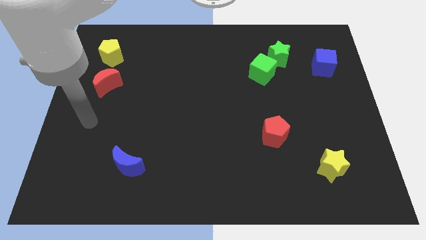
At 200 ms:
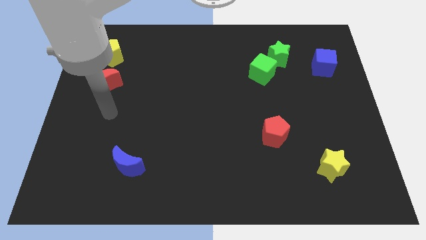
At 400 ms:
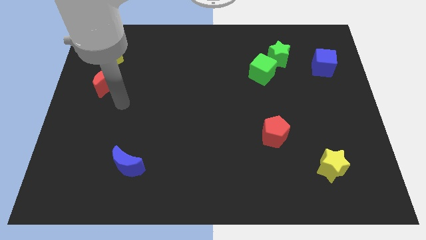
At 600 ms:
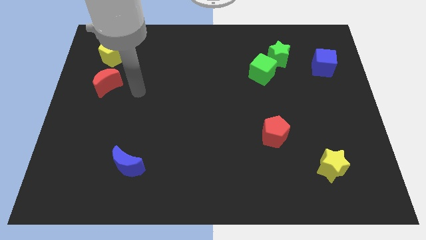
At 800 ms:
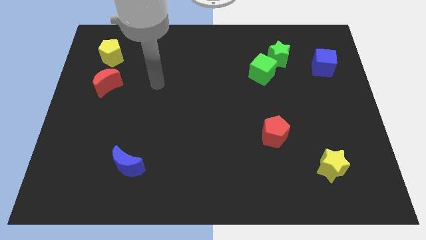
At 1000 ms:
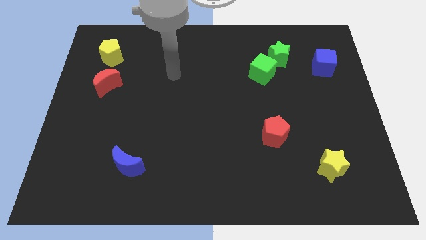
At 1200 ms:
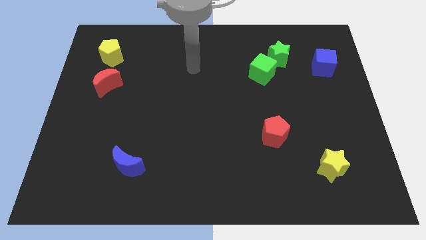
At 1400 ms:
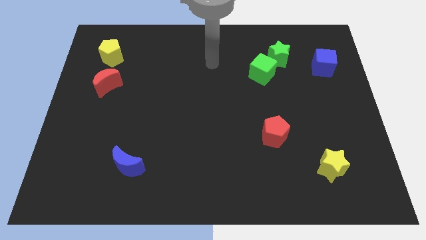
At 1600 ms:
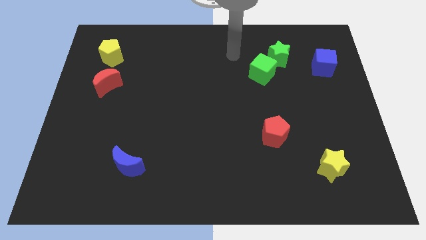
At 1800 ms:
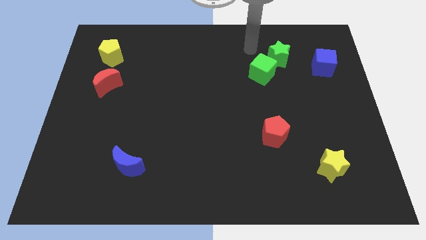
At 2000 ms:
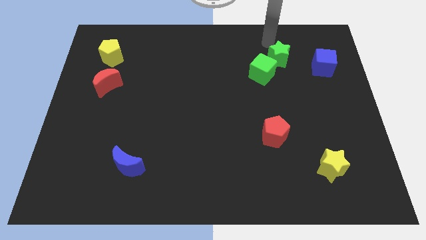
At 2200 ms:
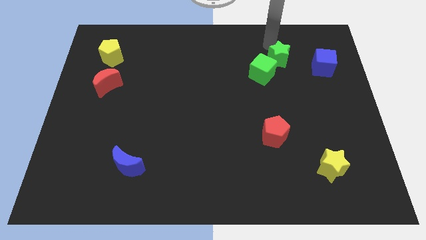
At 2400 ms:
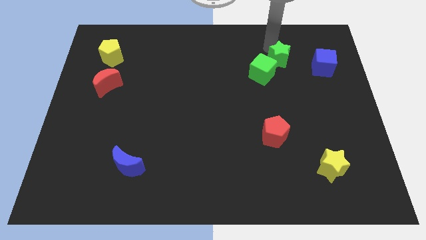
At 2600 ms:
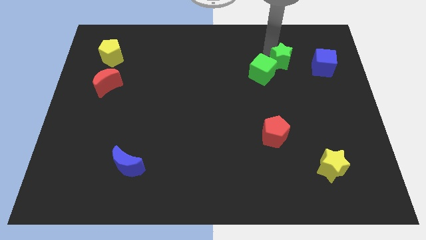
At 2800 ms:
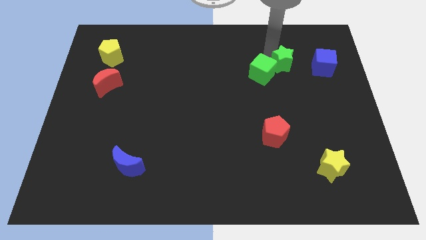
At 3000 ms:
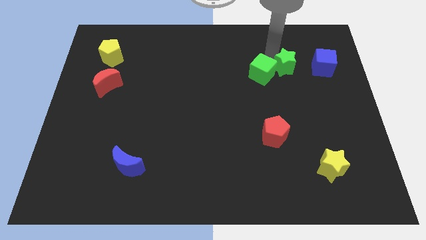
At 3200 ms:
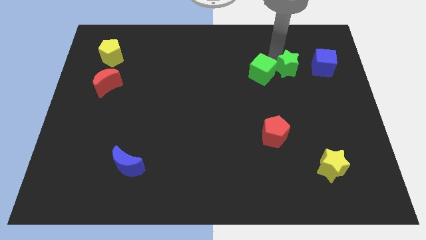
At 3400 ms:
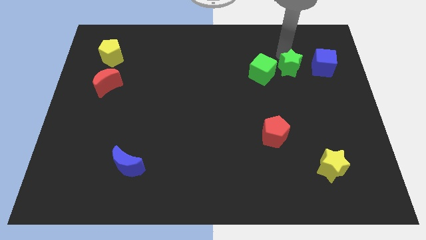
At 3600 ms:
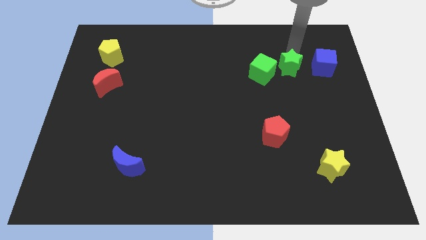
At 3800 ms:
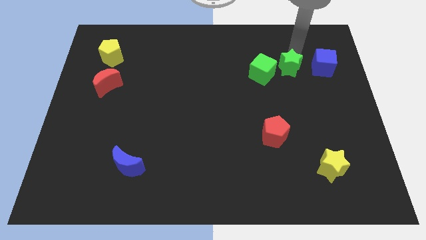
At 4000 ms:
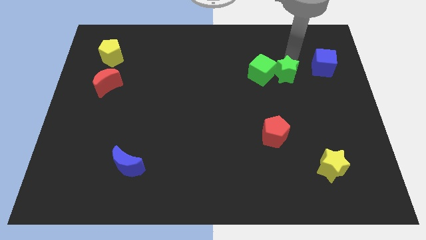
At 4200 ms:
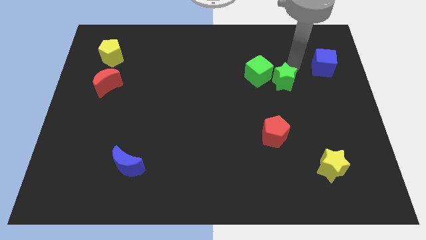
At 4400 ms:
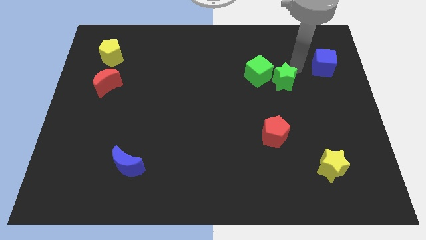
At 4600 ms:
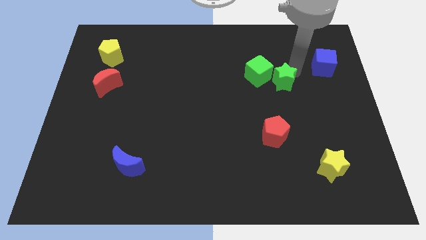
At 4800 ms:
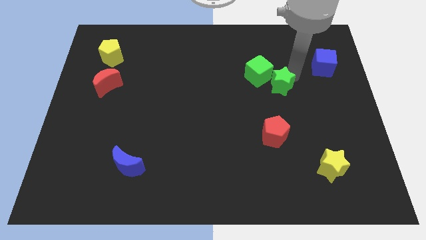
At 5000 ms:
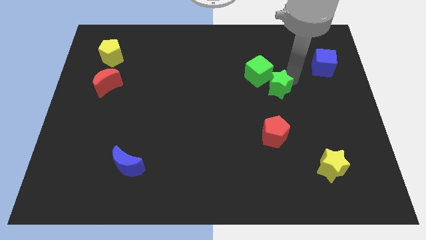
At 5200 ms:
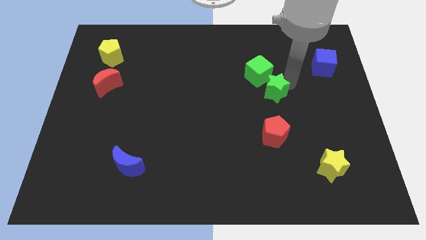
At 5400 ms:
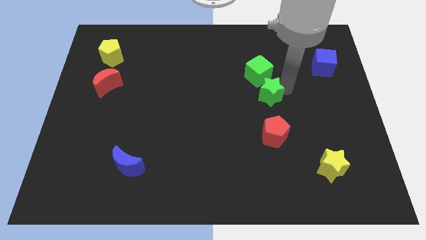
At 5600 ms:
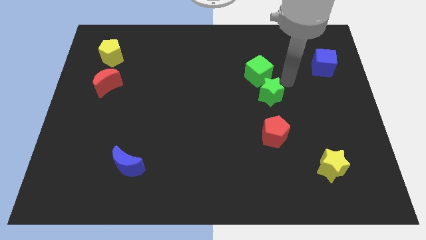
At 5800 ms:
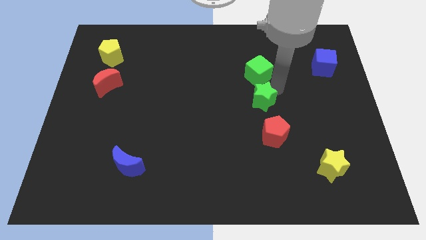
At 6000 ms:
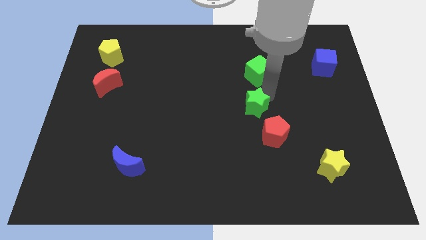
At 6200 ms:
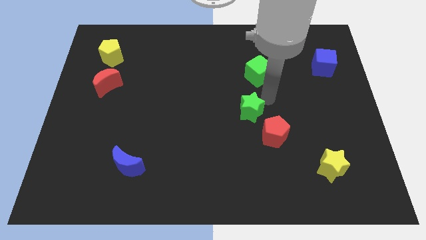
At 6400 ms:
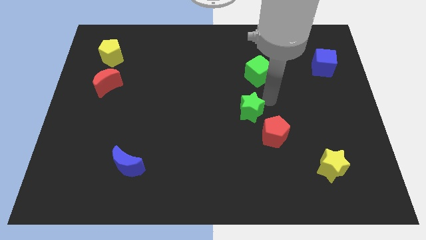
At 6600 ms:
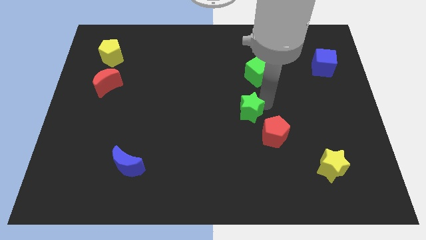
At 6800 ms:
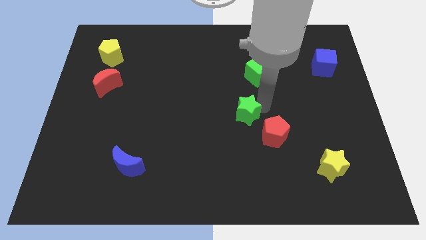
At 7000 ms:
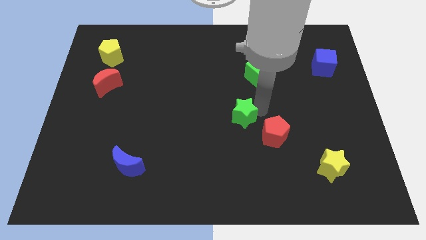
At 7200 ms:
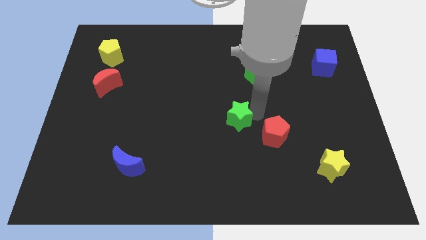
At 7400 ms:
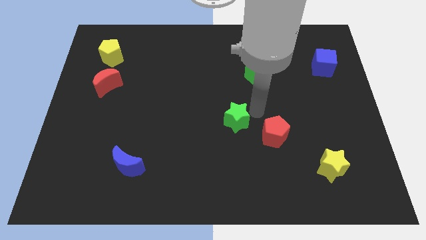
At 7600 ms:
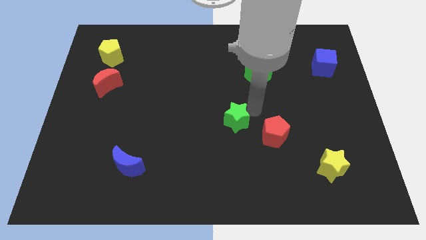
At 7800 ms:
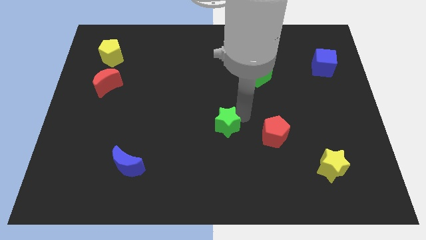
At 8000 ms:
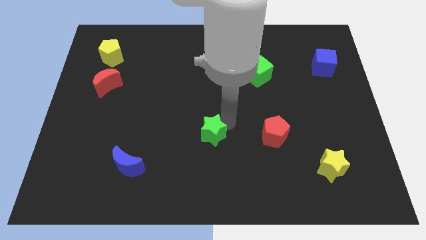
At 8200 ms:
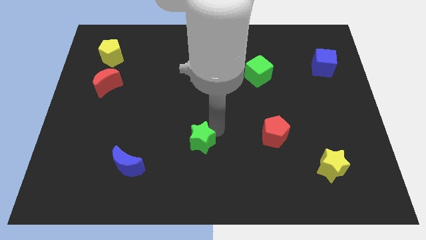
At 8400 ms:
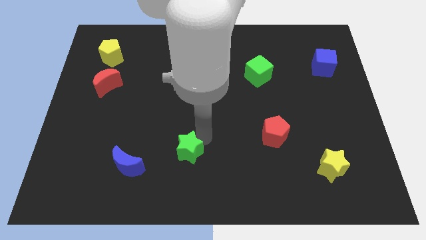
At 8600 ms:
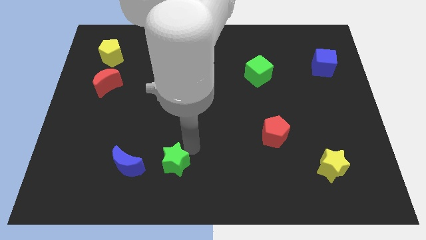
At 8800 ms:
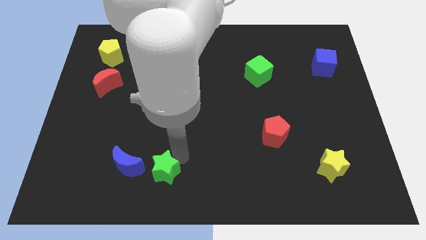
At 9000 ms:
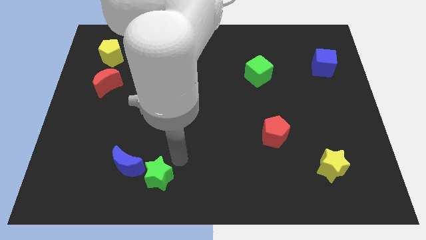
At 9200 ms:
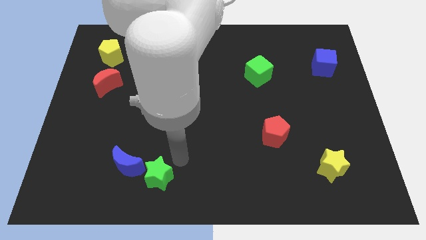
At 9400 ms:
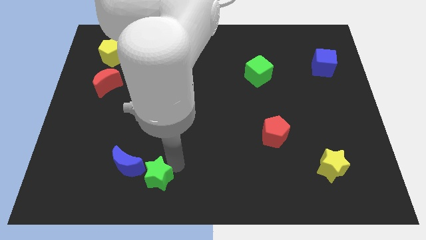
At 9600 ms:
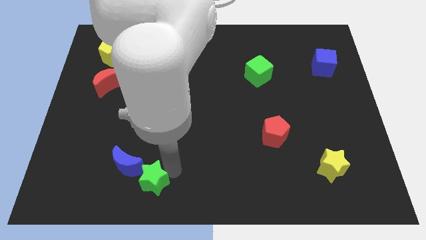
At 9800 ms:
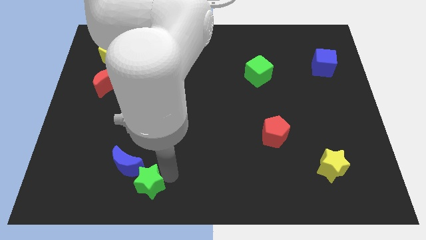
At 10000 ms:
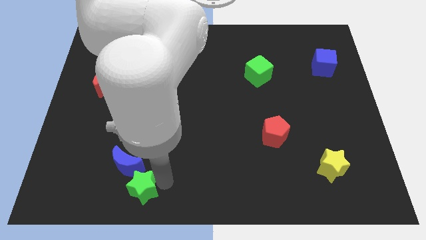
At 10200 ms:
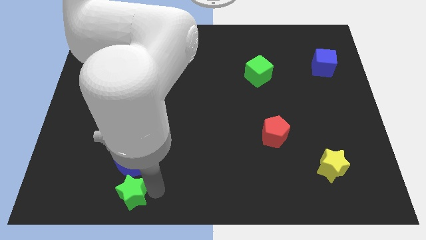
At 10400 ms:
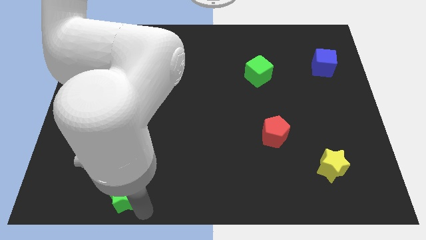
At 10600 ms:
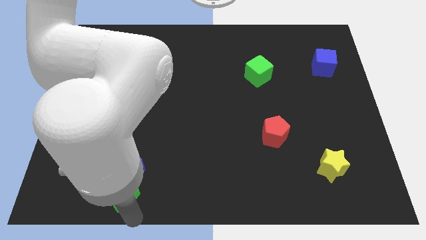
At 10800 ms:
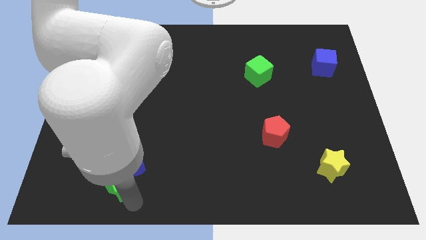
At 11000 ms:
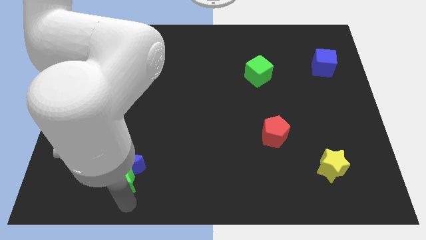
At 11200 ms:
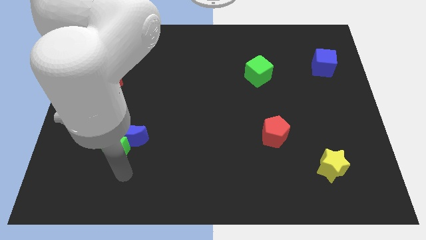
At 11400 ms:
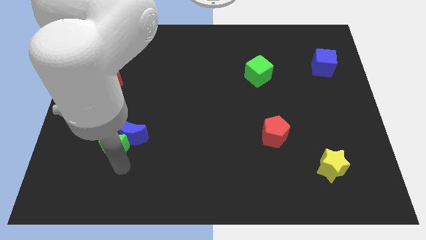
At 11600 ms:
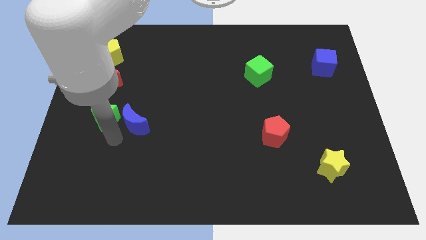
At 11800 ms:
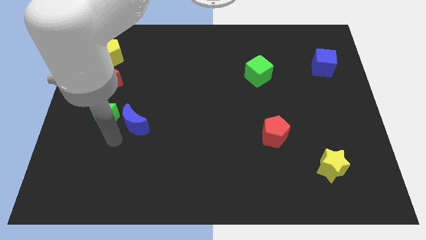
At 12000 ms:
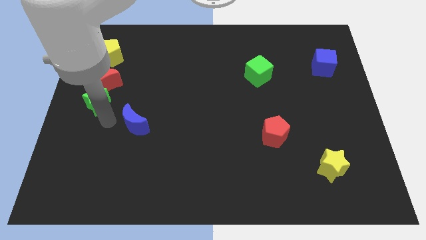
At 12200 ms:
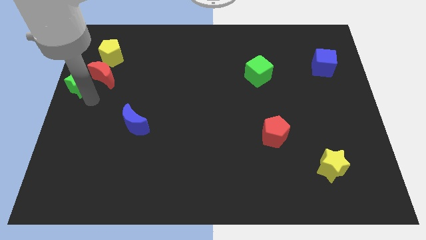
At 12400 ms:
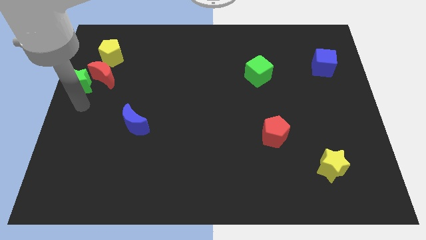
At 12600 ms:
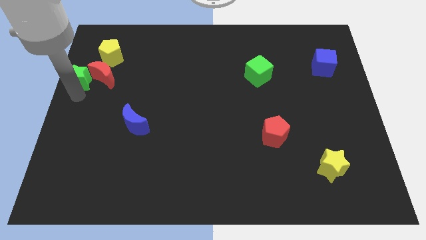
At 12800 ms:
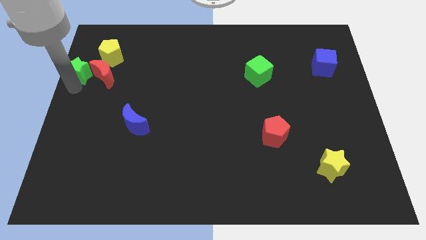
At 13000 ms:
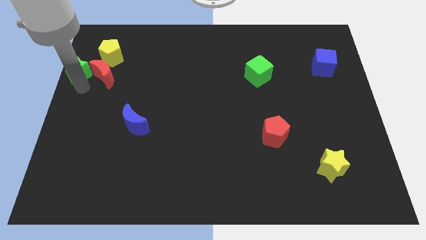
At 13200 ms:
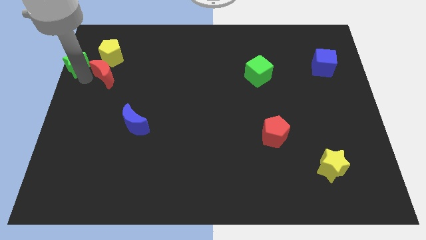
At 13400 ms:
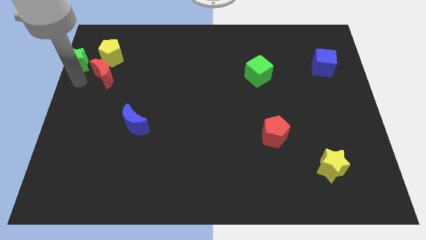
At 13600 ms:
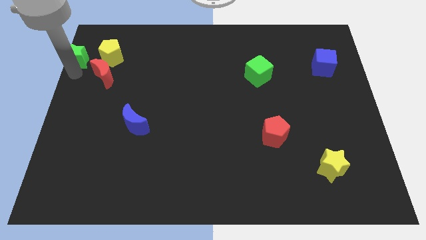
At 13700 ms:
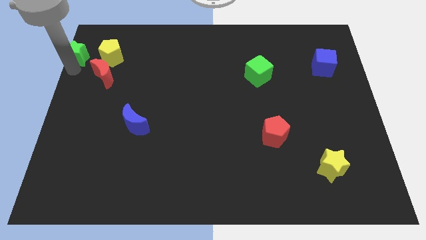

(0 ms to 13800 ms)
push the green star to the top left corner
